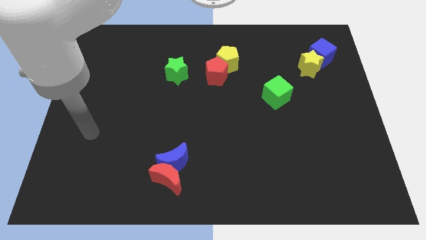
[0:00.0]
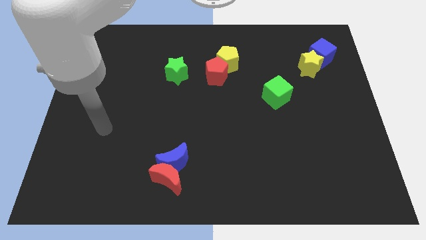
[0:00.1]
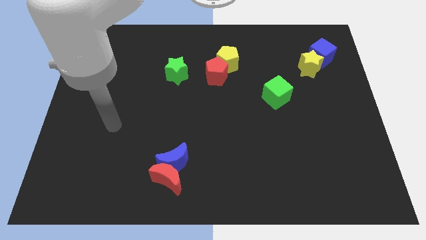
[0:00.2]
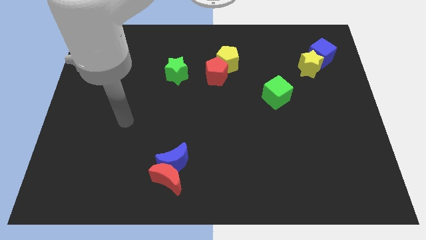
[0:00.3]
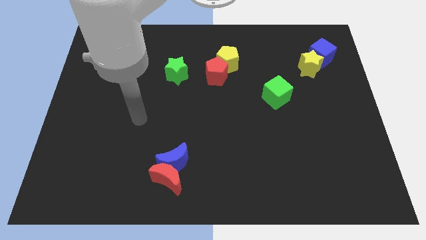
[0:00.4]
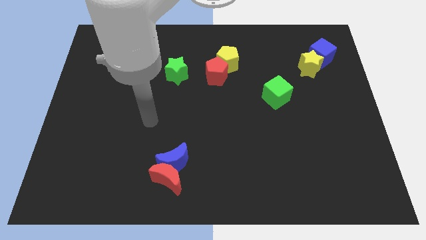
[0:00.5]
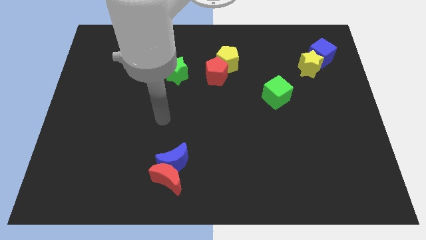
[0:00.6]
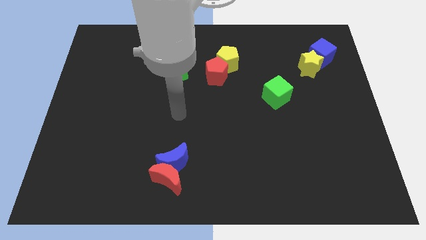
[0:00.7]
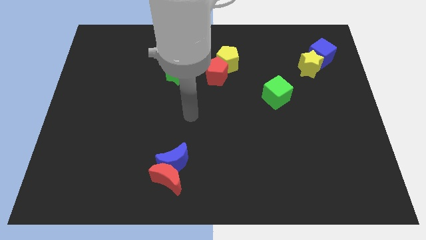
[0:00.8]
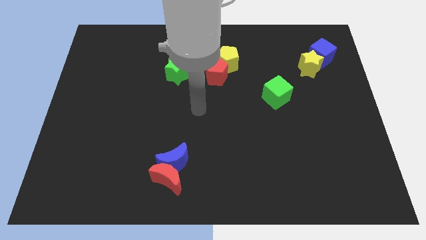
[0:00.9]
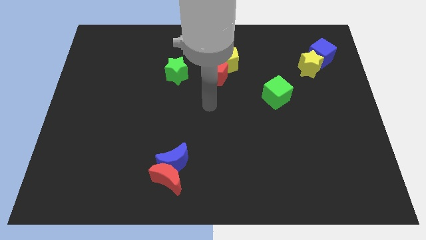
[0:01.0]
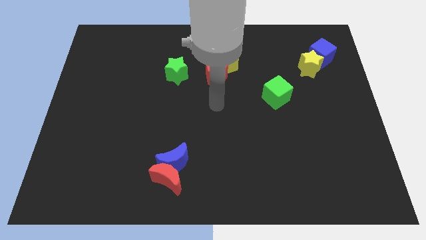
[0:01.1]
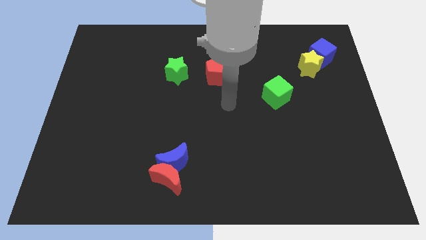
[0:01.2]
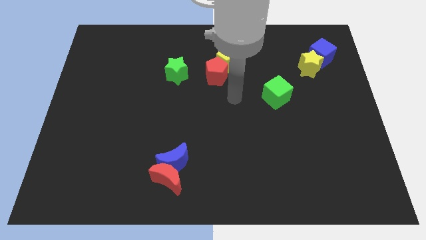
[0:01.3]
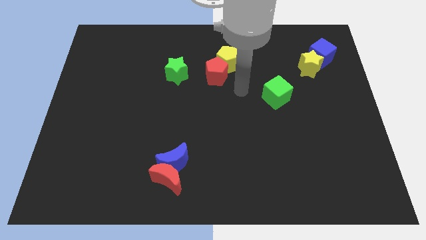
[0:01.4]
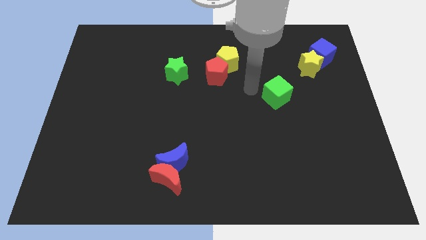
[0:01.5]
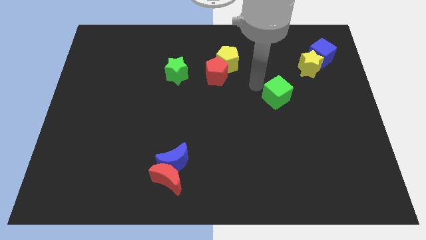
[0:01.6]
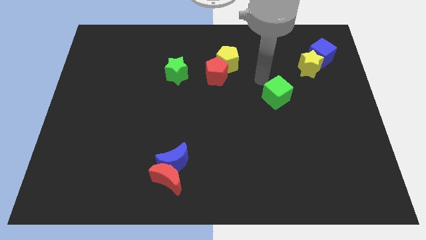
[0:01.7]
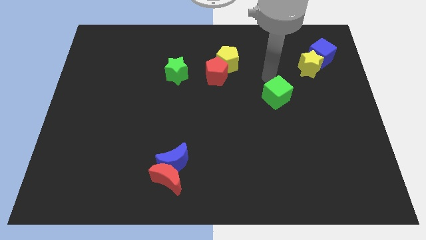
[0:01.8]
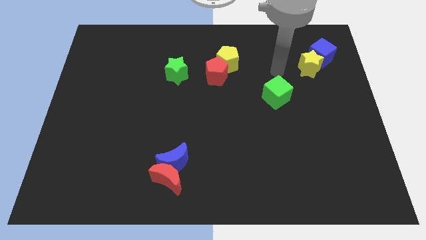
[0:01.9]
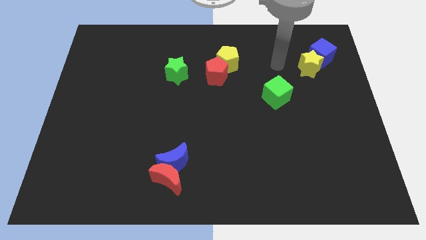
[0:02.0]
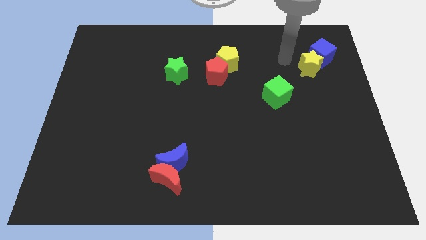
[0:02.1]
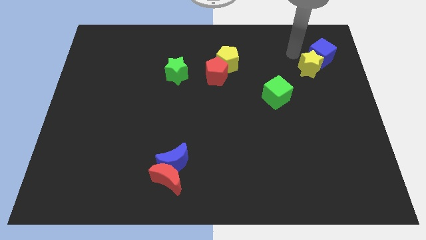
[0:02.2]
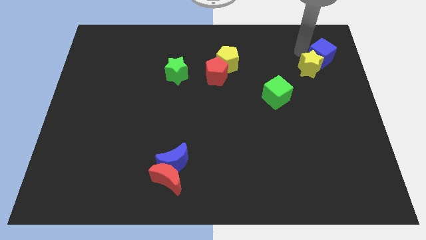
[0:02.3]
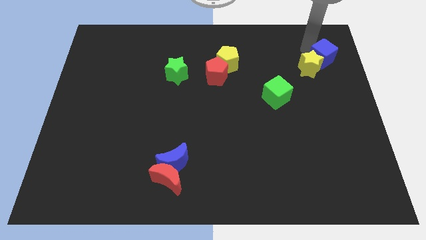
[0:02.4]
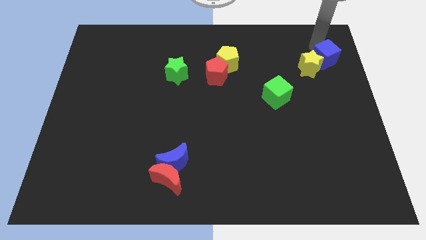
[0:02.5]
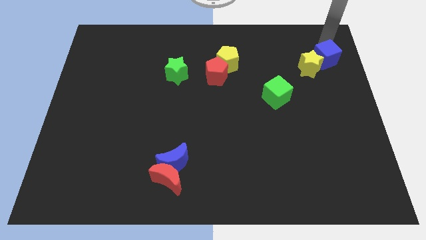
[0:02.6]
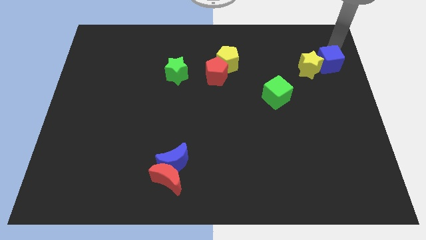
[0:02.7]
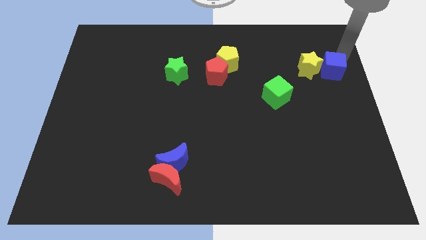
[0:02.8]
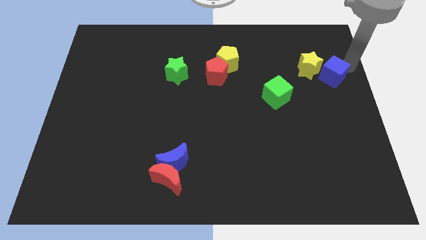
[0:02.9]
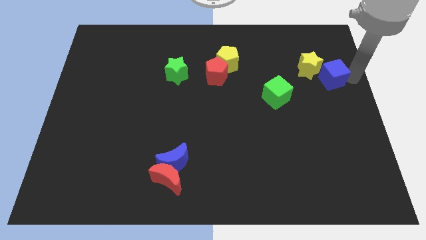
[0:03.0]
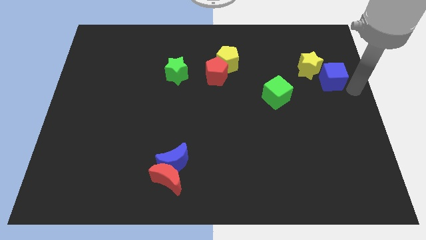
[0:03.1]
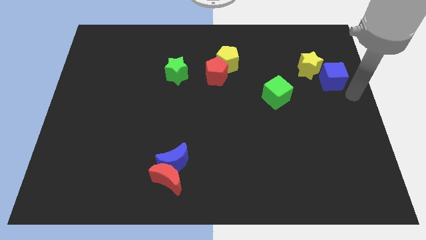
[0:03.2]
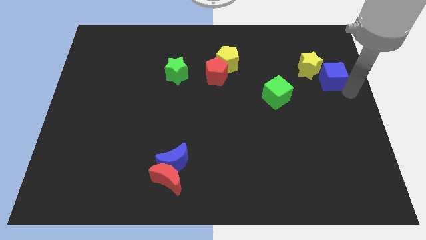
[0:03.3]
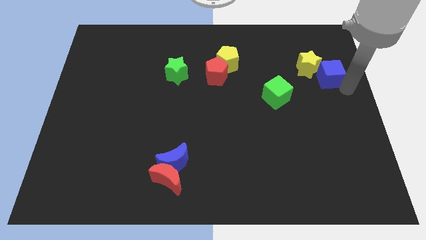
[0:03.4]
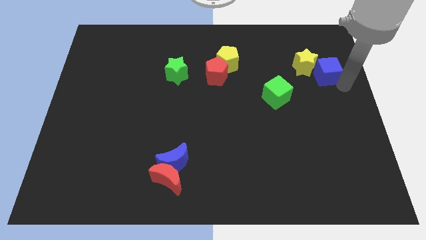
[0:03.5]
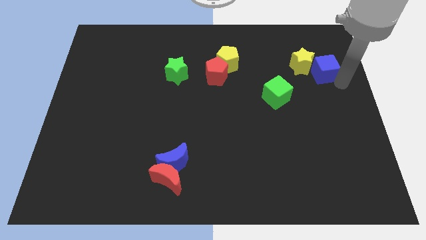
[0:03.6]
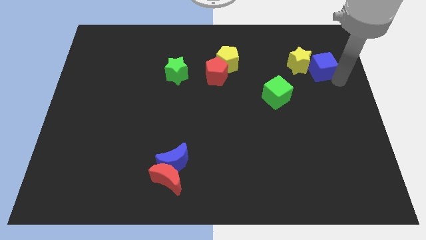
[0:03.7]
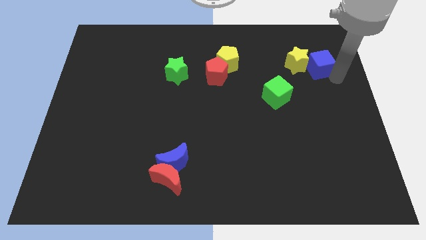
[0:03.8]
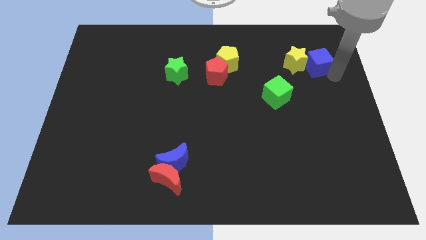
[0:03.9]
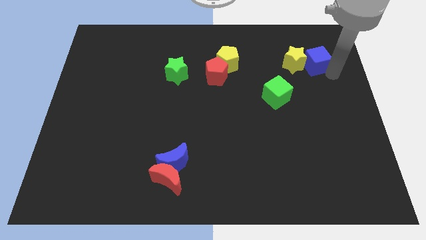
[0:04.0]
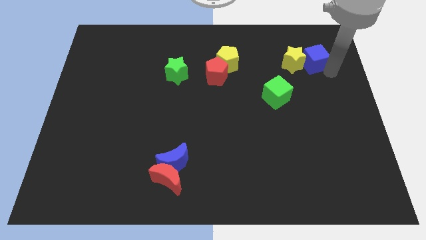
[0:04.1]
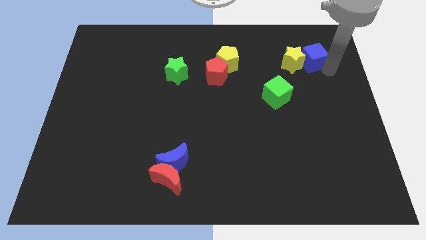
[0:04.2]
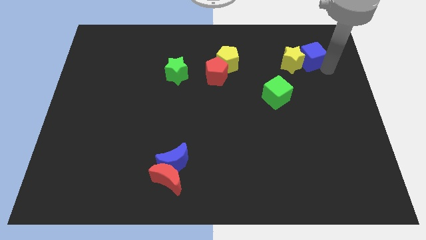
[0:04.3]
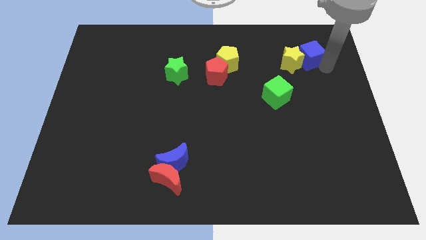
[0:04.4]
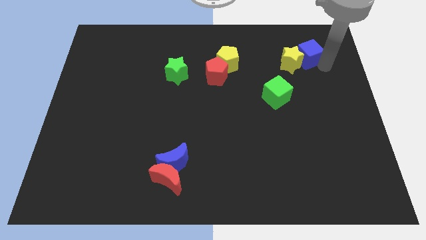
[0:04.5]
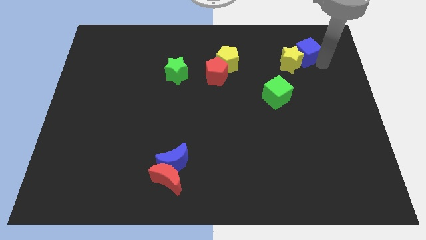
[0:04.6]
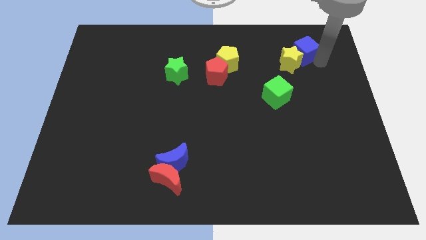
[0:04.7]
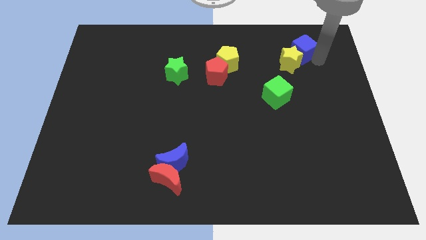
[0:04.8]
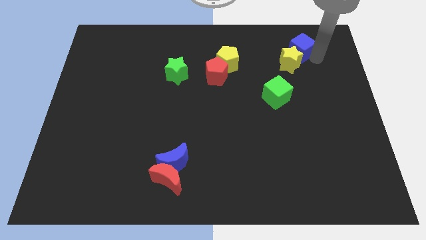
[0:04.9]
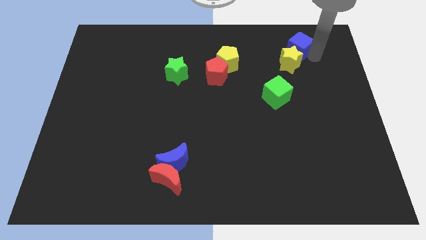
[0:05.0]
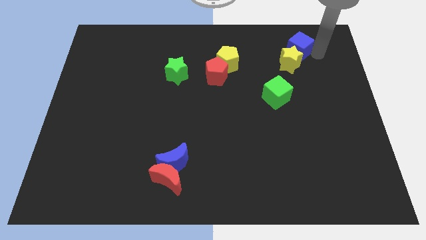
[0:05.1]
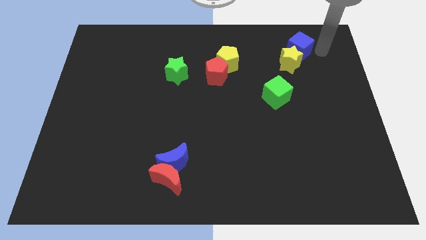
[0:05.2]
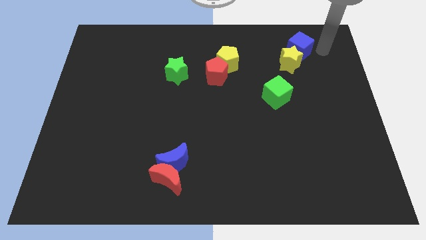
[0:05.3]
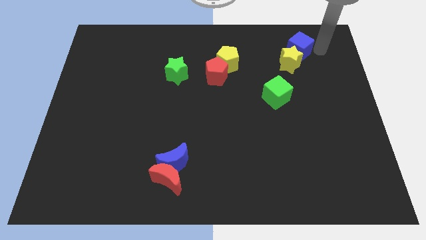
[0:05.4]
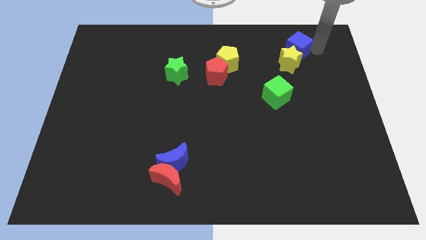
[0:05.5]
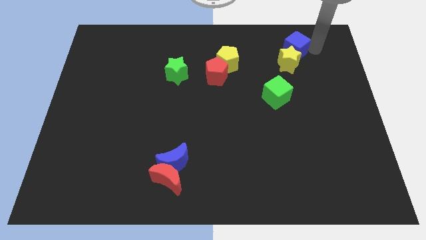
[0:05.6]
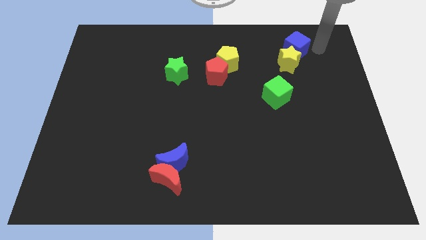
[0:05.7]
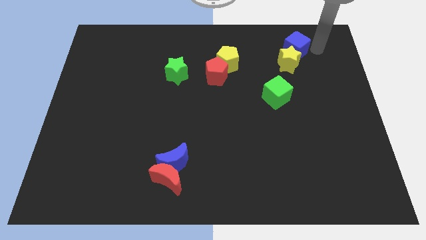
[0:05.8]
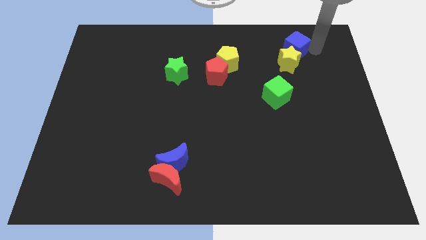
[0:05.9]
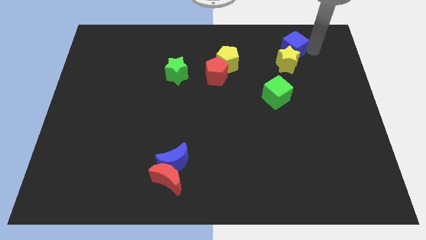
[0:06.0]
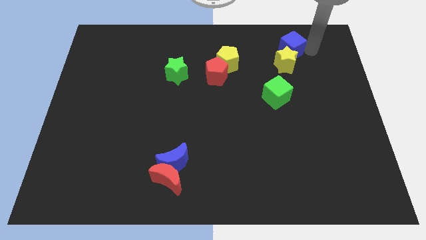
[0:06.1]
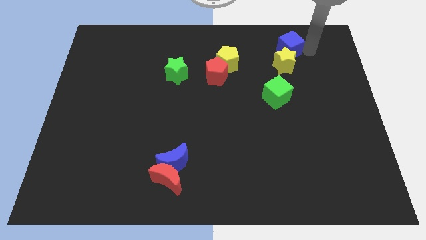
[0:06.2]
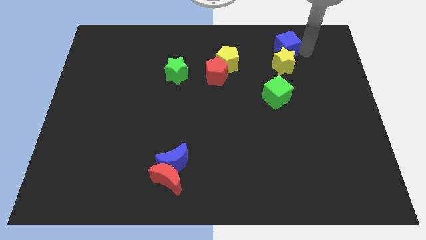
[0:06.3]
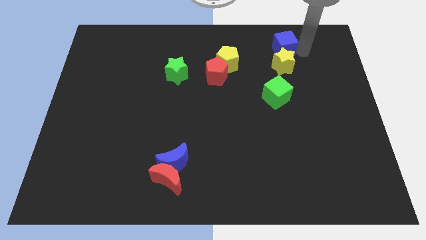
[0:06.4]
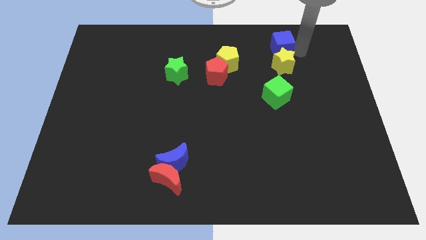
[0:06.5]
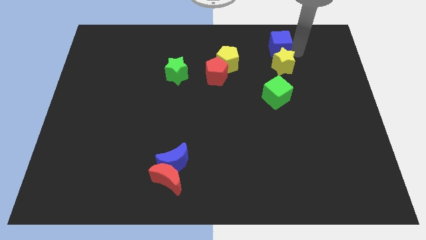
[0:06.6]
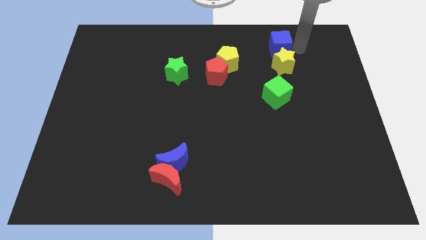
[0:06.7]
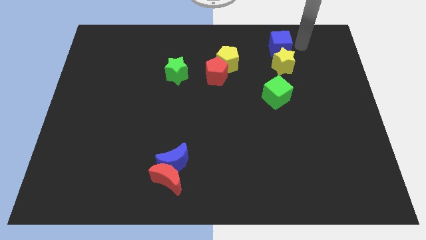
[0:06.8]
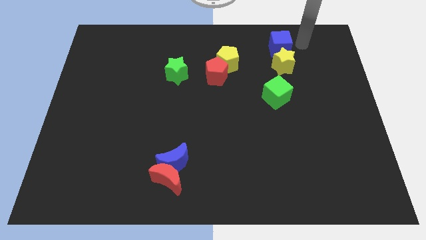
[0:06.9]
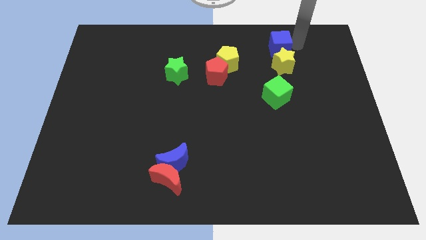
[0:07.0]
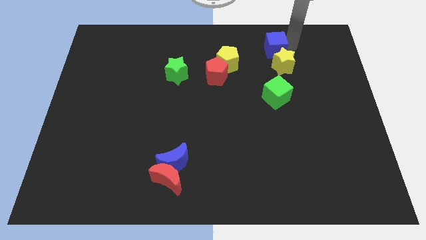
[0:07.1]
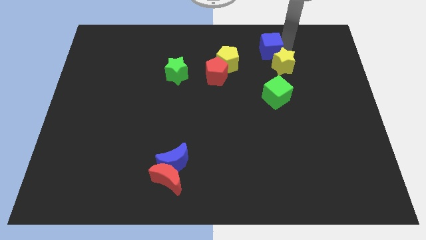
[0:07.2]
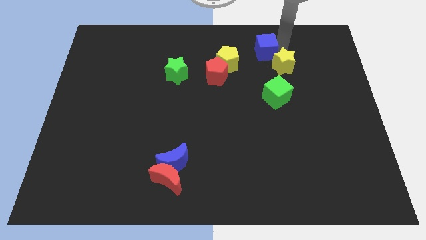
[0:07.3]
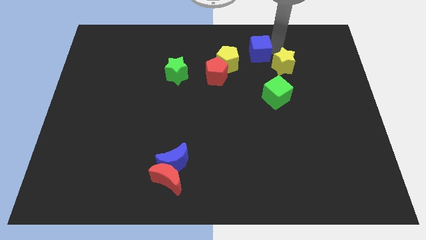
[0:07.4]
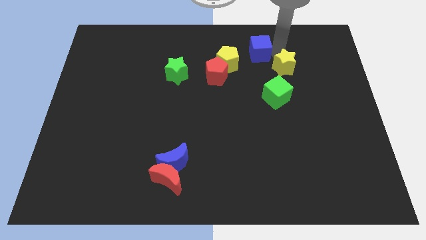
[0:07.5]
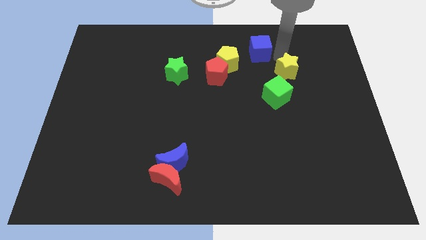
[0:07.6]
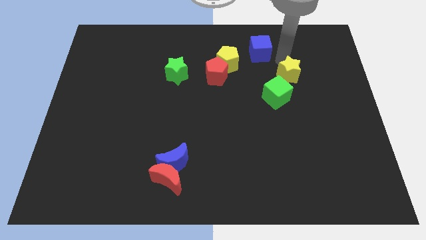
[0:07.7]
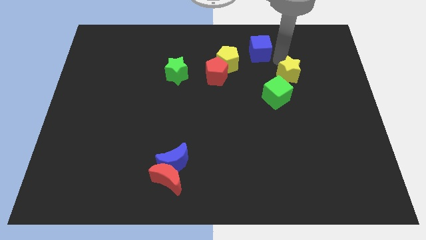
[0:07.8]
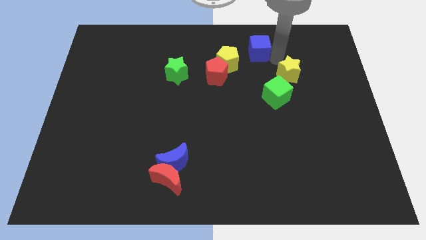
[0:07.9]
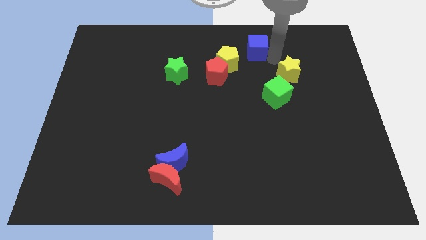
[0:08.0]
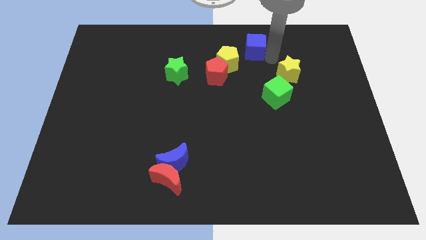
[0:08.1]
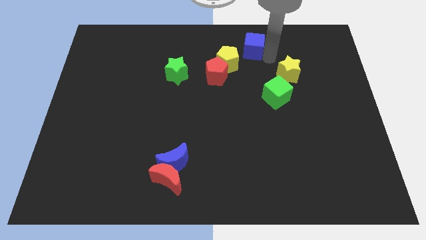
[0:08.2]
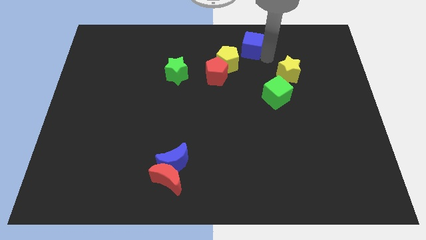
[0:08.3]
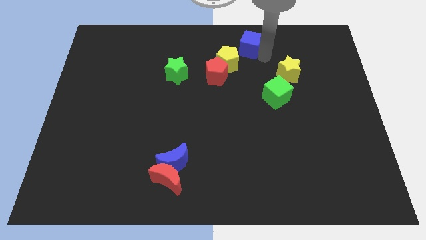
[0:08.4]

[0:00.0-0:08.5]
push the blue cube to the top
